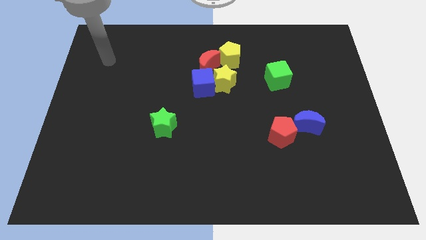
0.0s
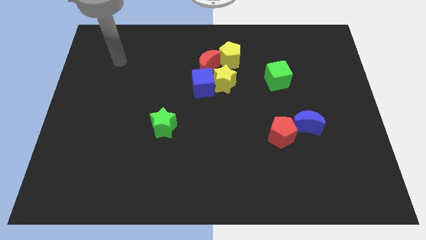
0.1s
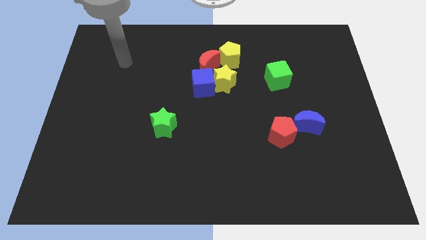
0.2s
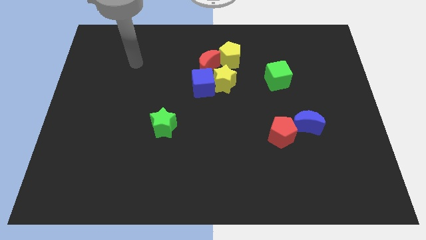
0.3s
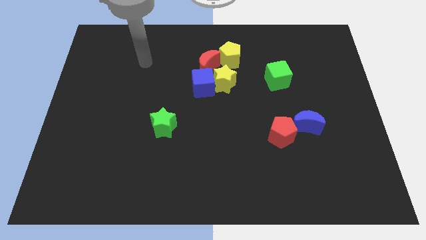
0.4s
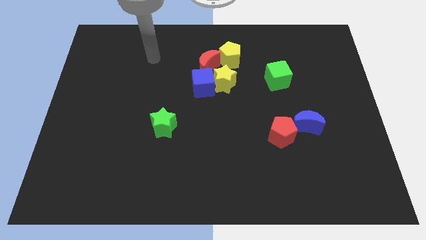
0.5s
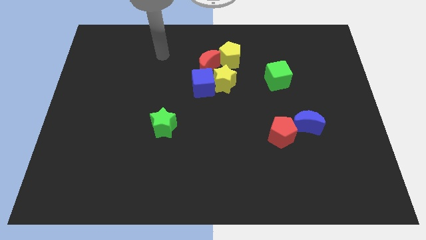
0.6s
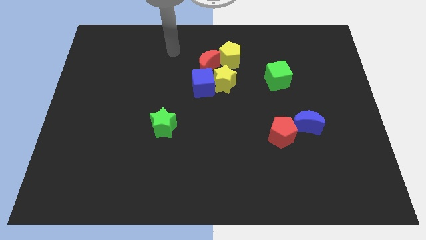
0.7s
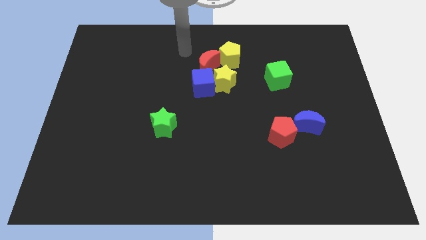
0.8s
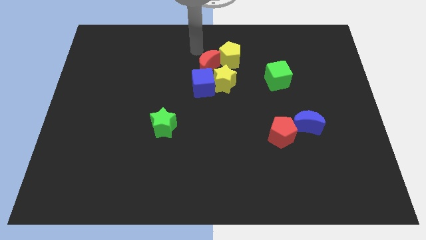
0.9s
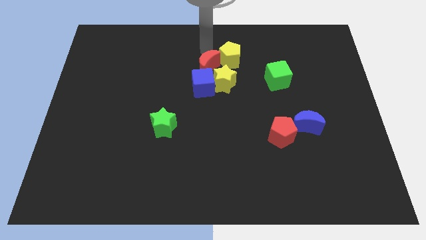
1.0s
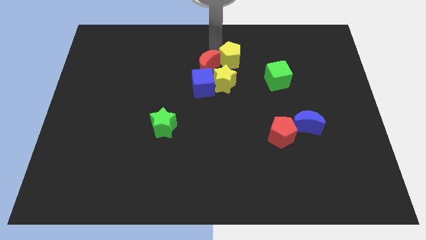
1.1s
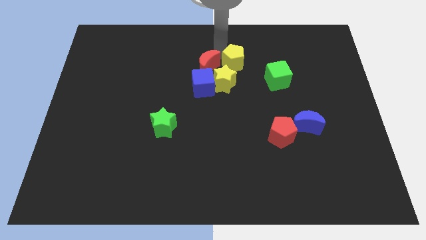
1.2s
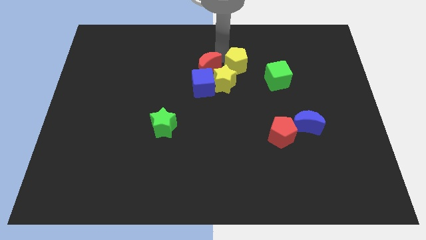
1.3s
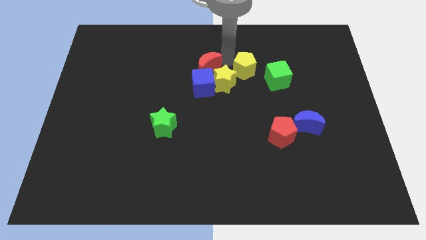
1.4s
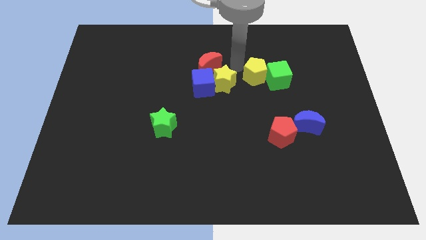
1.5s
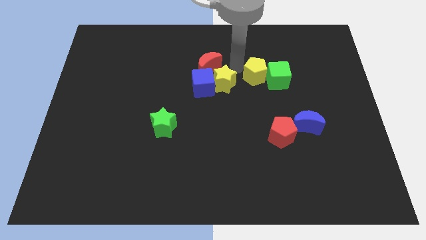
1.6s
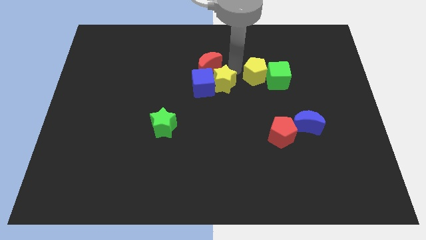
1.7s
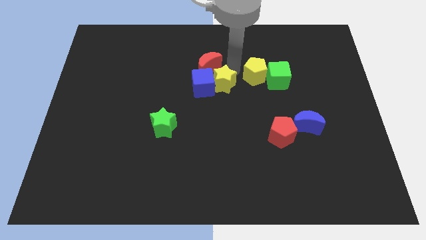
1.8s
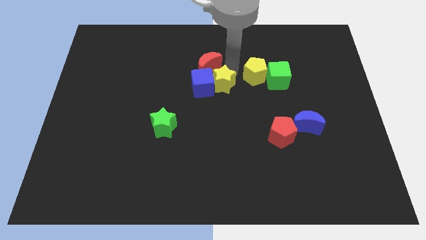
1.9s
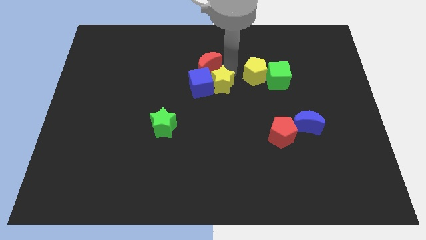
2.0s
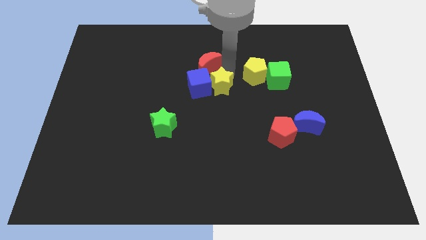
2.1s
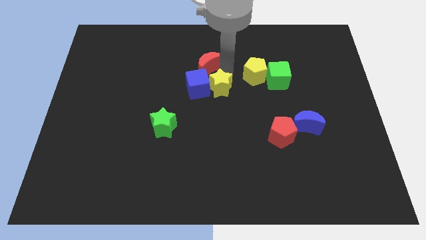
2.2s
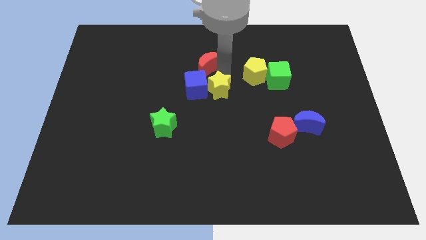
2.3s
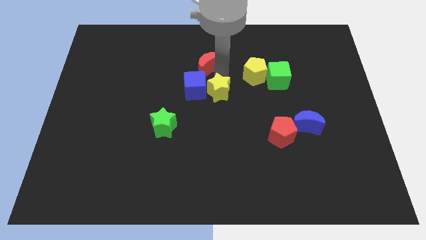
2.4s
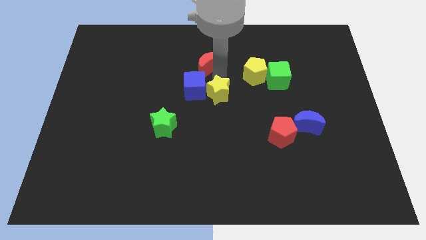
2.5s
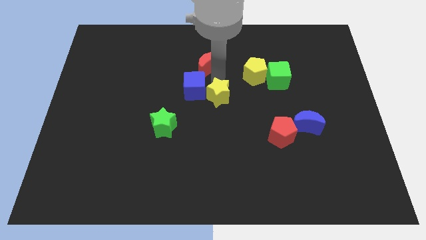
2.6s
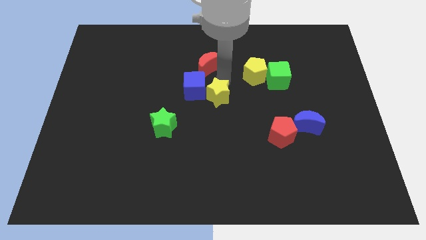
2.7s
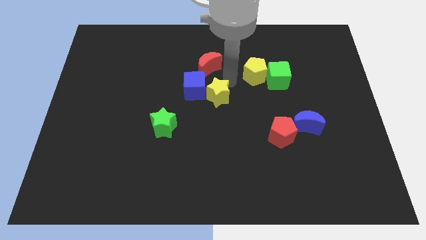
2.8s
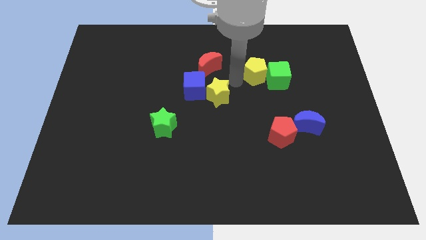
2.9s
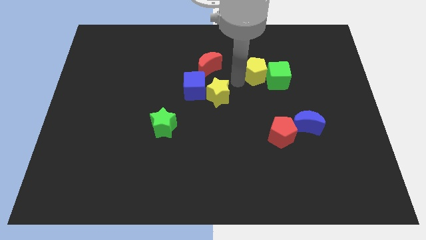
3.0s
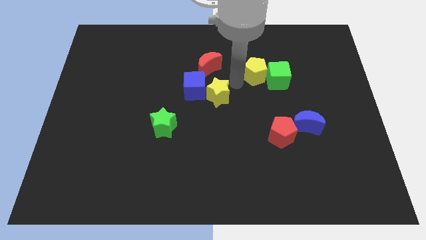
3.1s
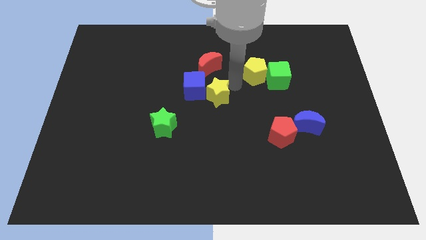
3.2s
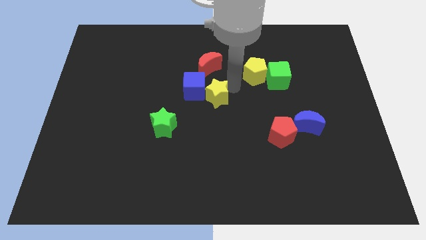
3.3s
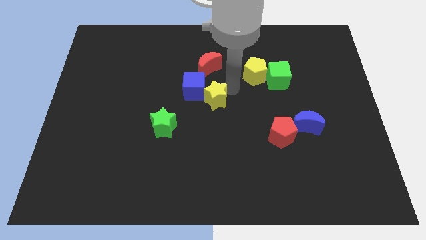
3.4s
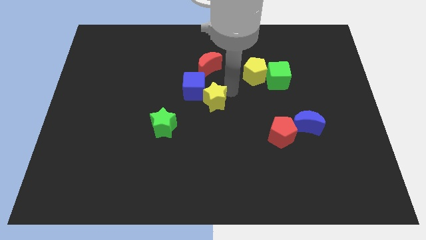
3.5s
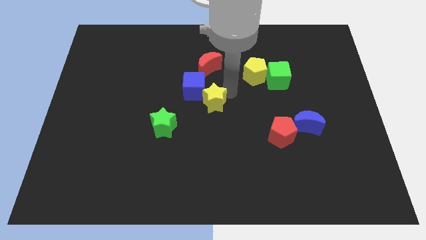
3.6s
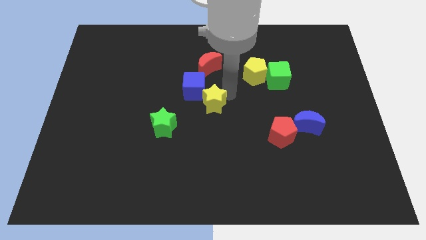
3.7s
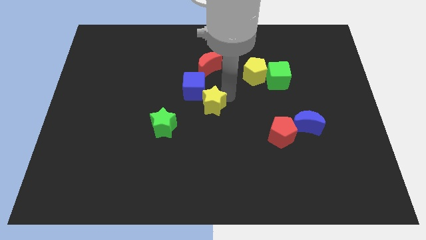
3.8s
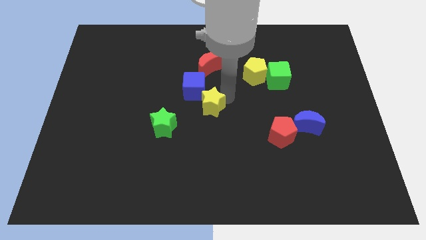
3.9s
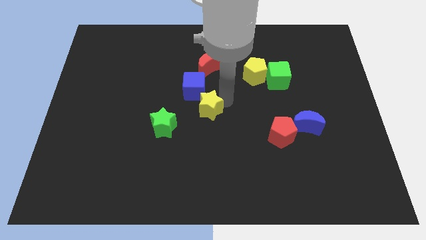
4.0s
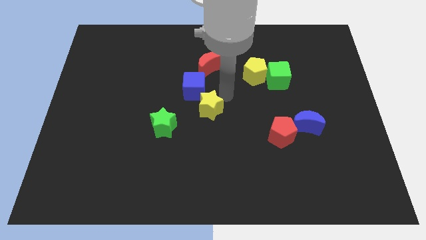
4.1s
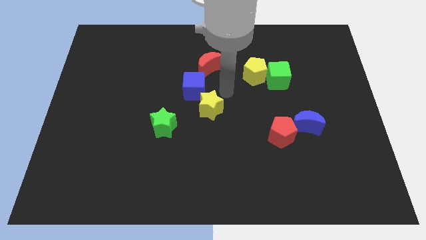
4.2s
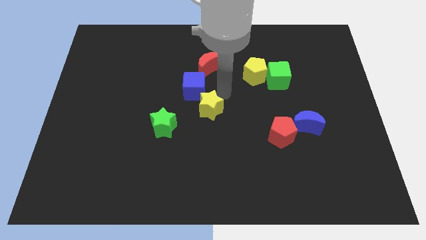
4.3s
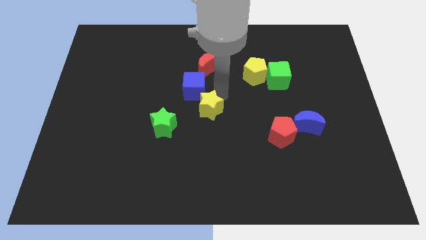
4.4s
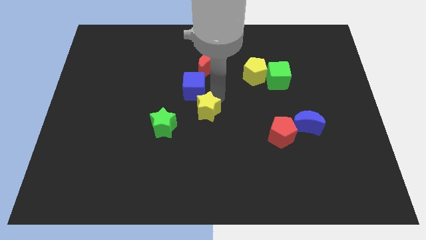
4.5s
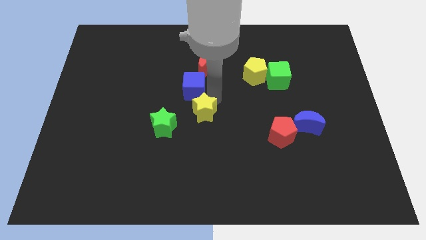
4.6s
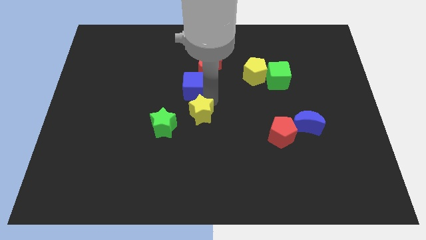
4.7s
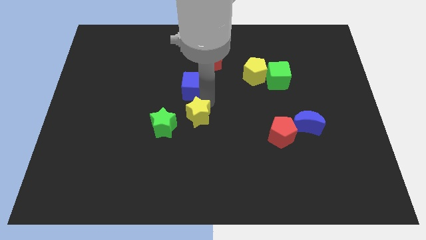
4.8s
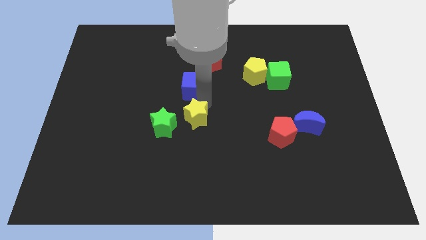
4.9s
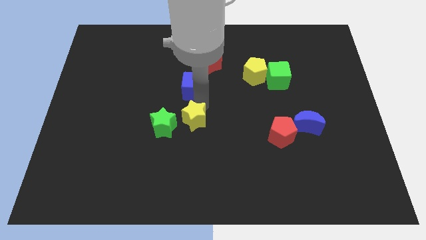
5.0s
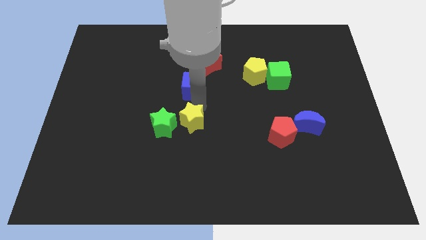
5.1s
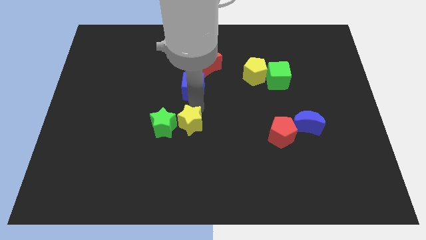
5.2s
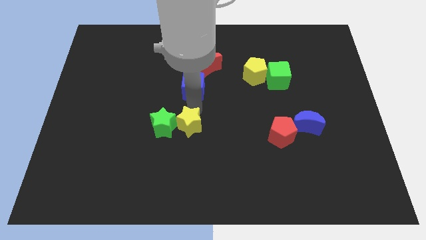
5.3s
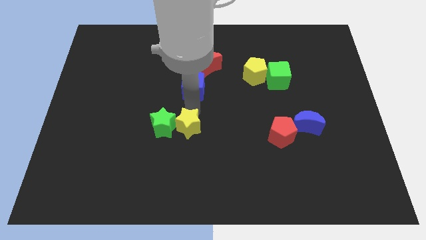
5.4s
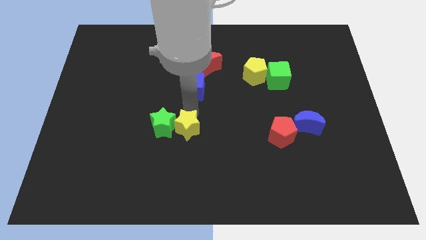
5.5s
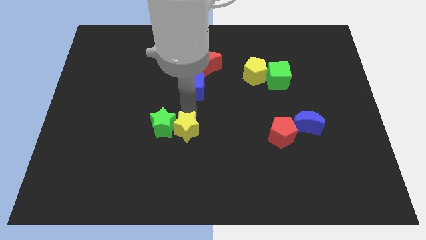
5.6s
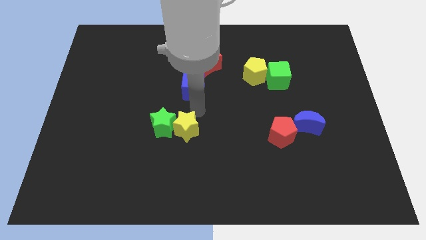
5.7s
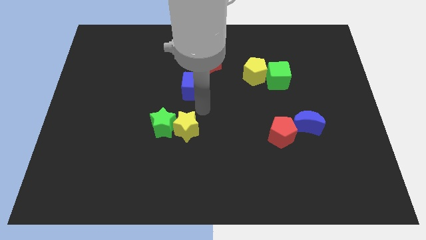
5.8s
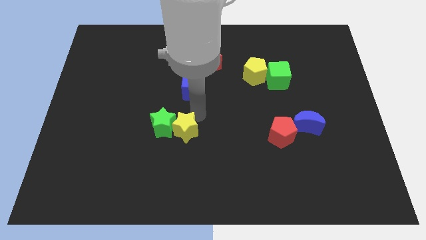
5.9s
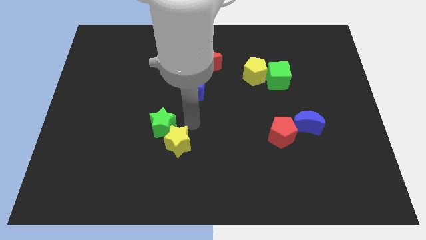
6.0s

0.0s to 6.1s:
move the yellow star to the bottom side of the green star
